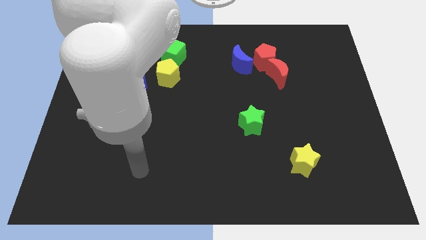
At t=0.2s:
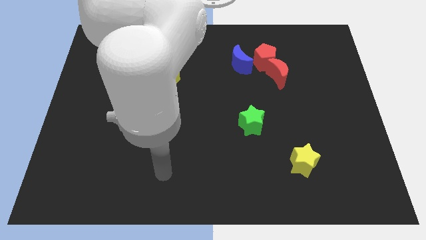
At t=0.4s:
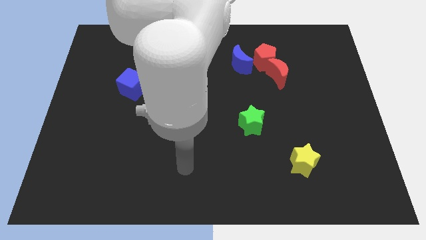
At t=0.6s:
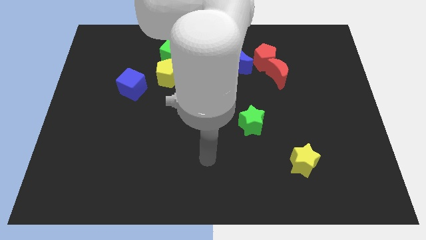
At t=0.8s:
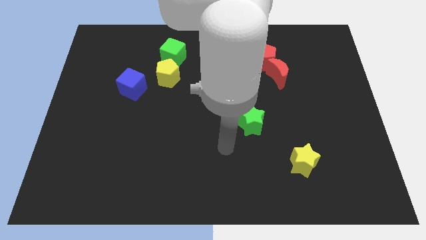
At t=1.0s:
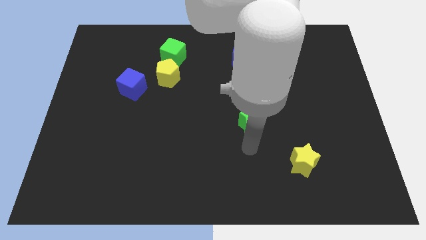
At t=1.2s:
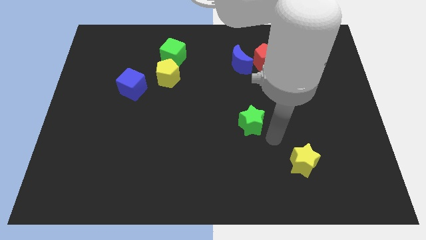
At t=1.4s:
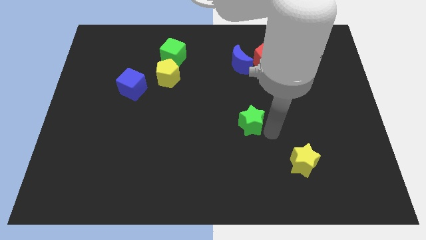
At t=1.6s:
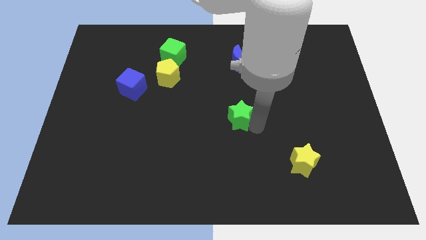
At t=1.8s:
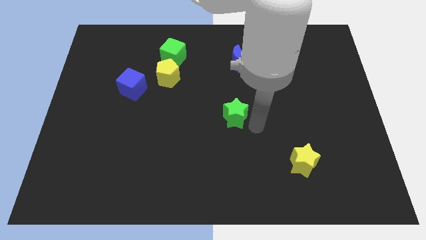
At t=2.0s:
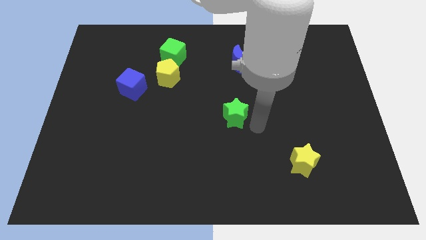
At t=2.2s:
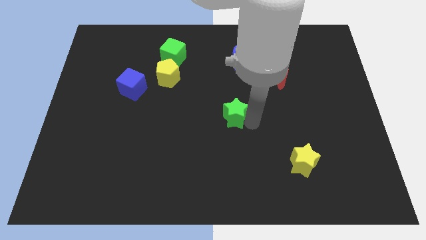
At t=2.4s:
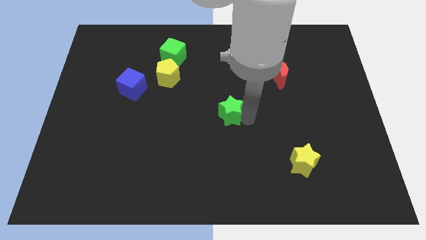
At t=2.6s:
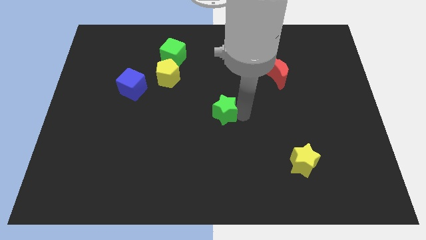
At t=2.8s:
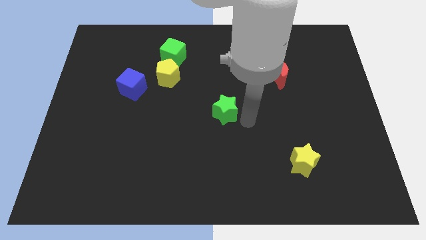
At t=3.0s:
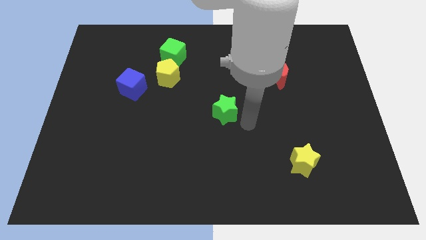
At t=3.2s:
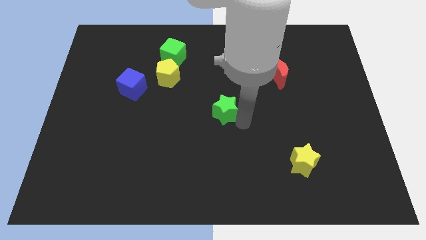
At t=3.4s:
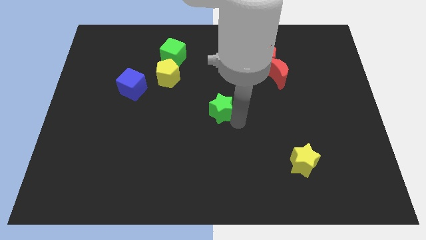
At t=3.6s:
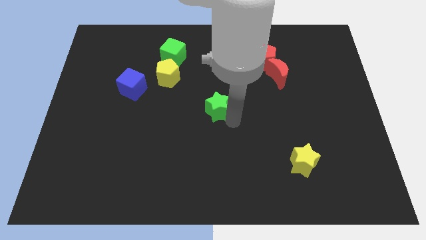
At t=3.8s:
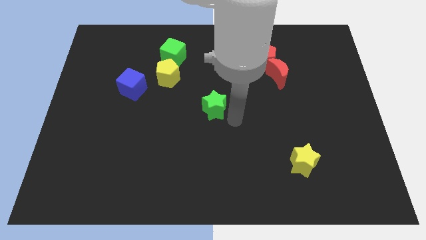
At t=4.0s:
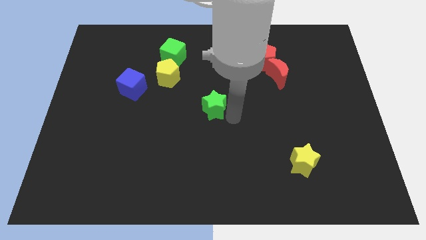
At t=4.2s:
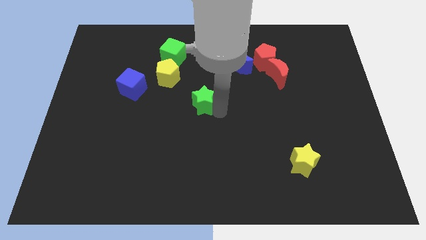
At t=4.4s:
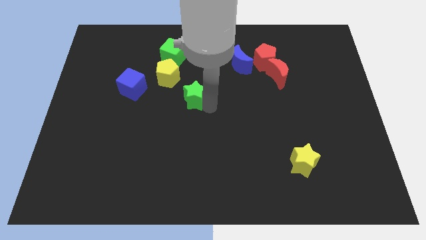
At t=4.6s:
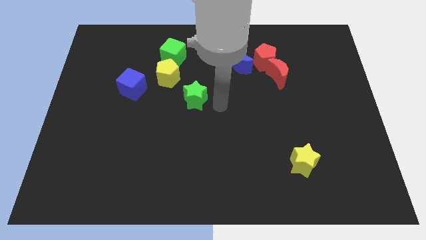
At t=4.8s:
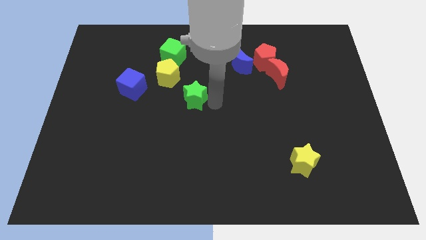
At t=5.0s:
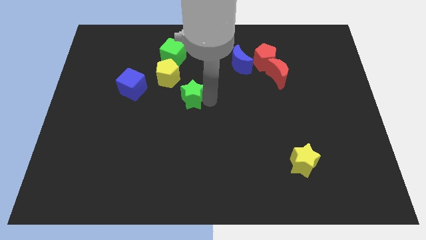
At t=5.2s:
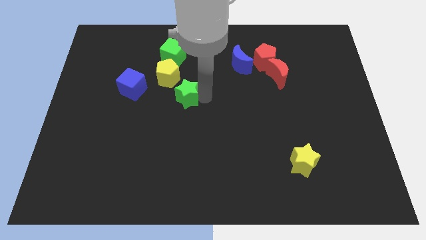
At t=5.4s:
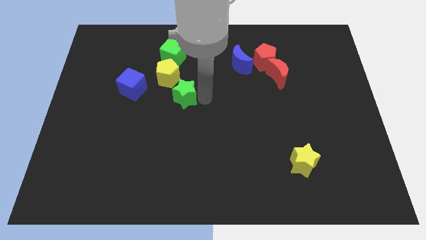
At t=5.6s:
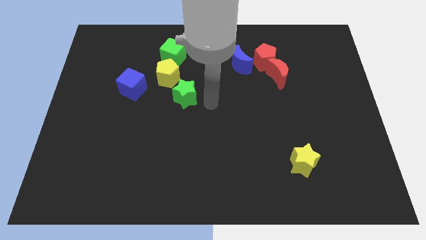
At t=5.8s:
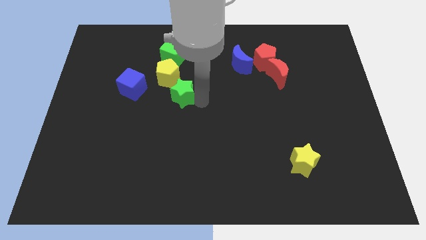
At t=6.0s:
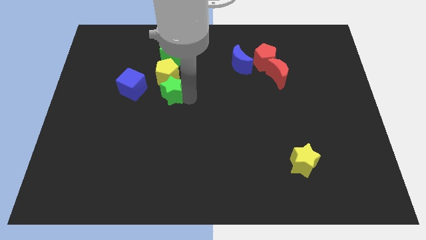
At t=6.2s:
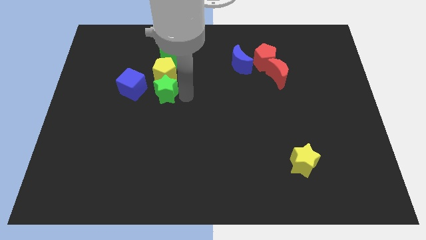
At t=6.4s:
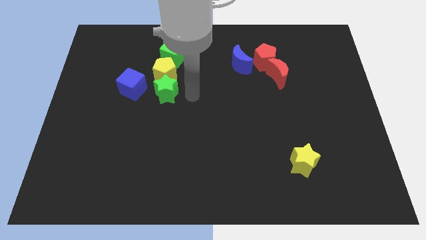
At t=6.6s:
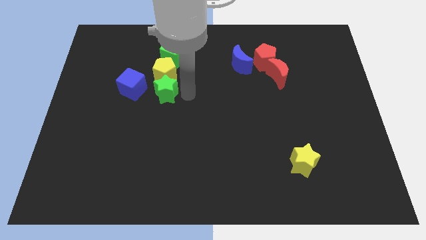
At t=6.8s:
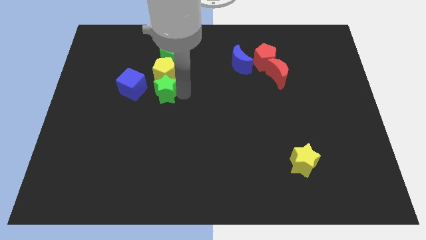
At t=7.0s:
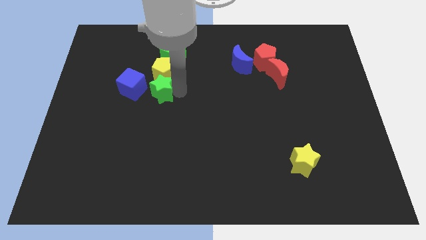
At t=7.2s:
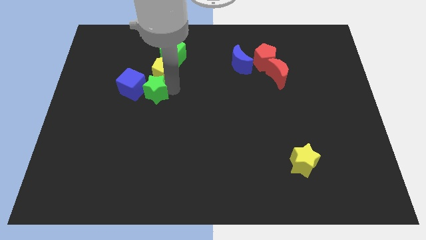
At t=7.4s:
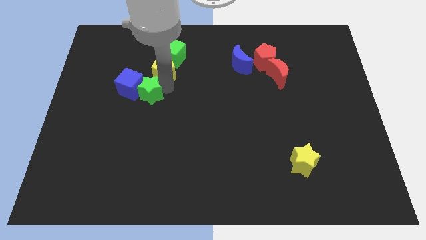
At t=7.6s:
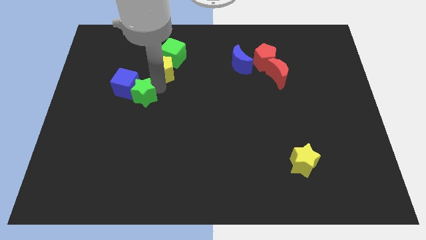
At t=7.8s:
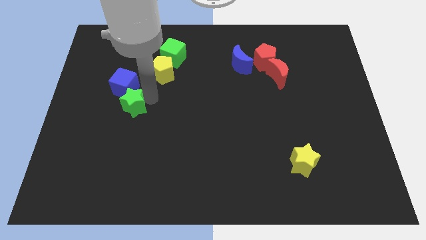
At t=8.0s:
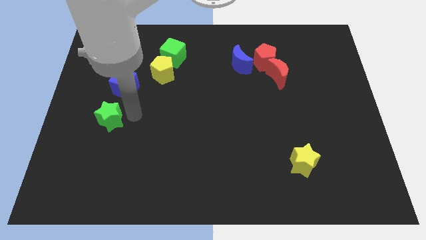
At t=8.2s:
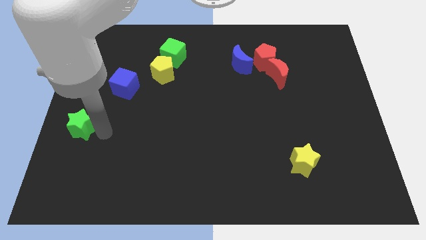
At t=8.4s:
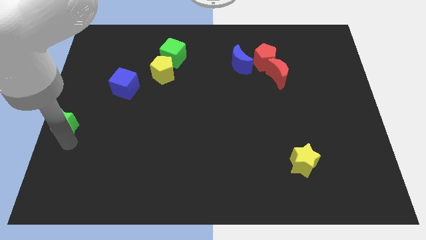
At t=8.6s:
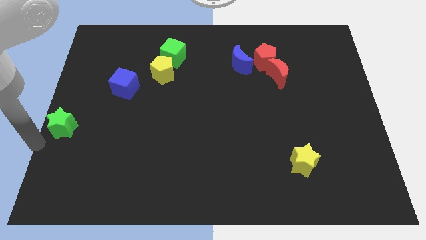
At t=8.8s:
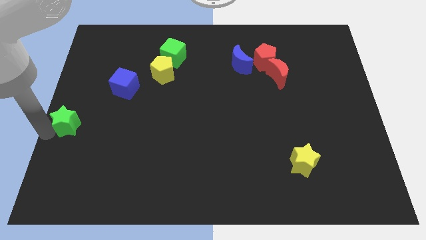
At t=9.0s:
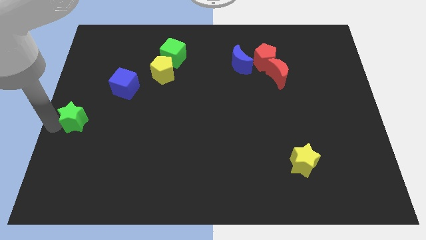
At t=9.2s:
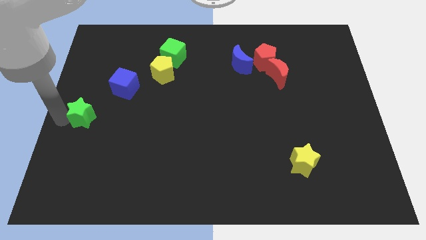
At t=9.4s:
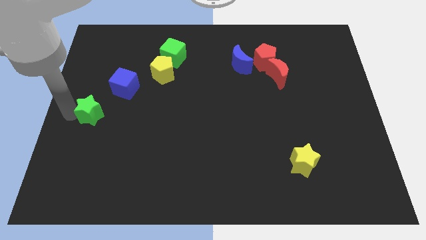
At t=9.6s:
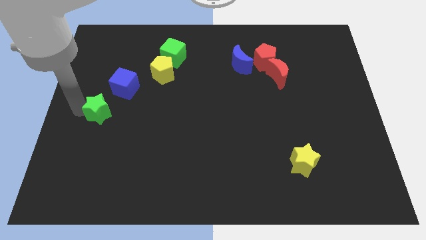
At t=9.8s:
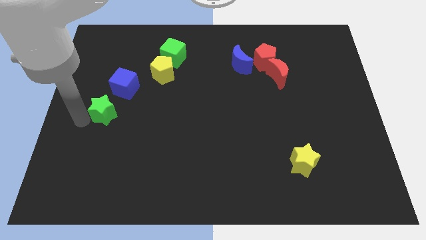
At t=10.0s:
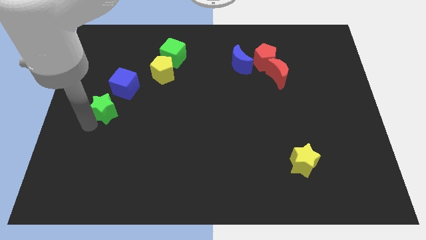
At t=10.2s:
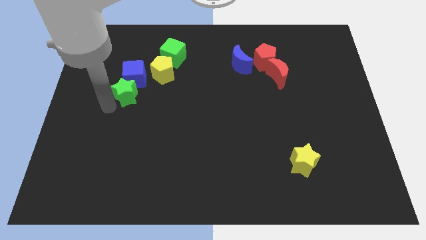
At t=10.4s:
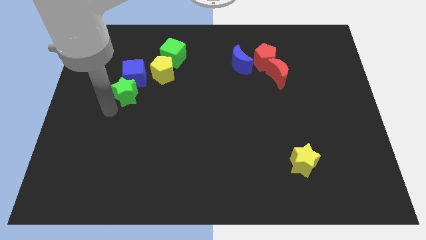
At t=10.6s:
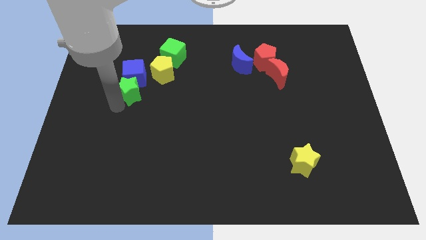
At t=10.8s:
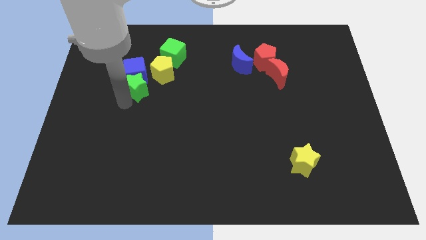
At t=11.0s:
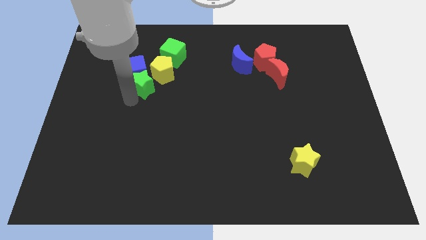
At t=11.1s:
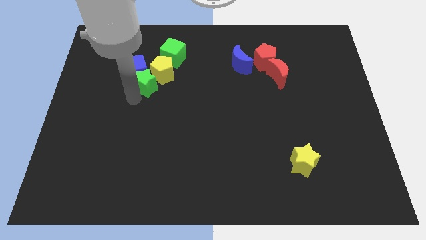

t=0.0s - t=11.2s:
slide the green star to the bottom left of the green cube

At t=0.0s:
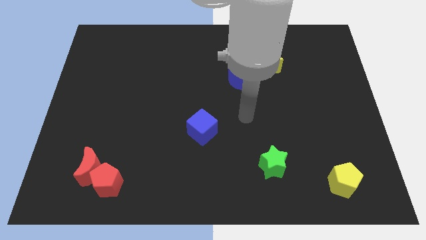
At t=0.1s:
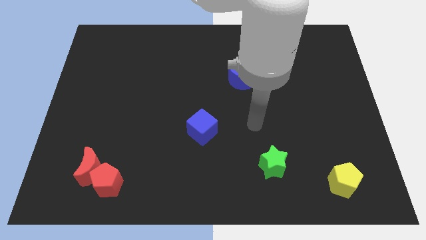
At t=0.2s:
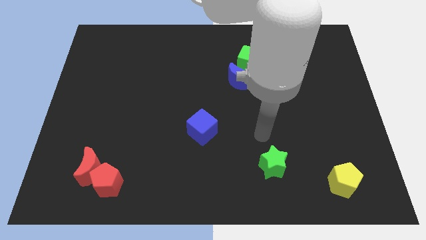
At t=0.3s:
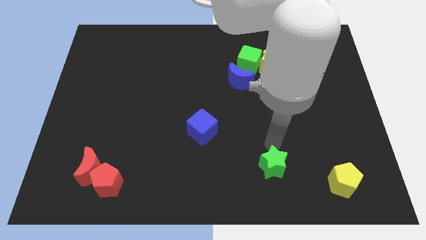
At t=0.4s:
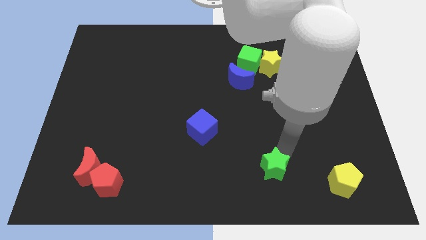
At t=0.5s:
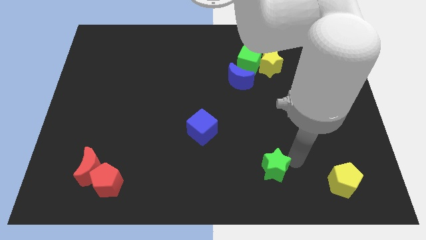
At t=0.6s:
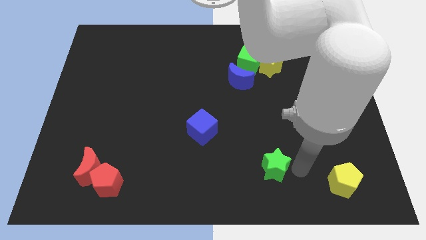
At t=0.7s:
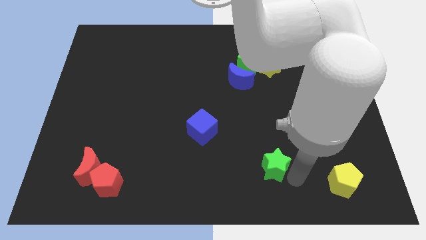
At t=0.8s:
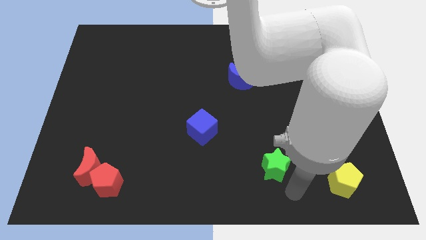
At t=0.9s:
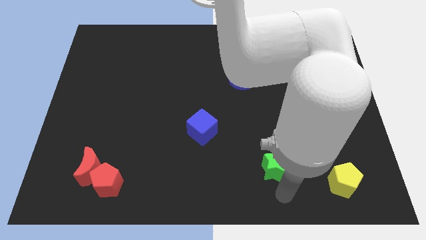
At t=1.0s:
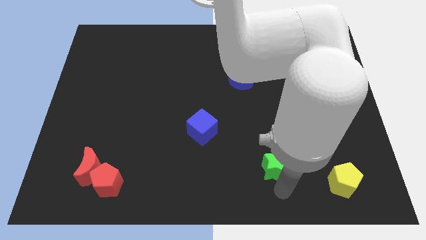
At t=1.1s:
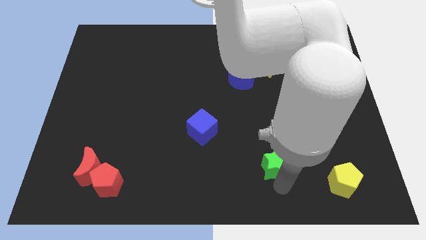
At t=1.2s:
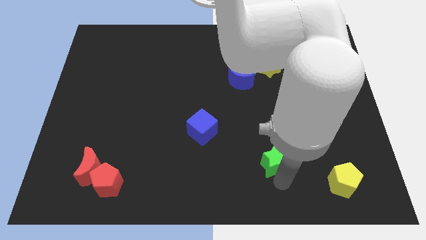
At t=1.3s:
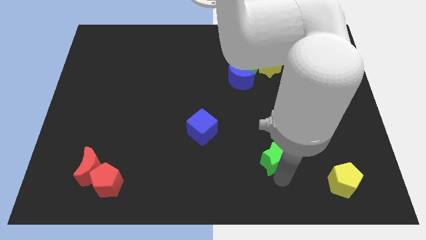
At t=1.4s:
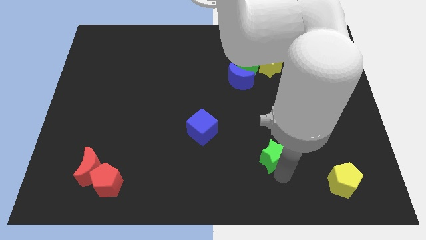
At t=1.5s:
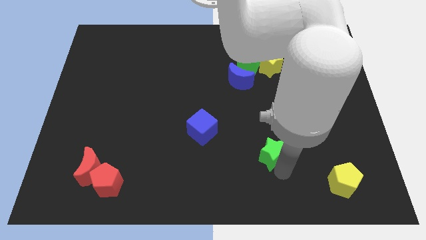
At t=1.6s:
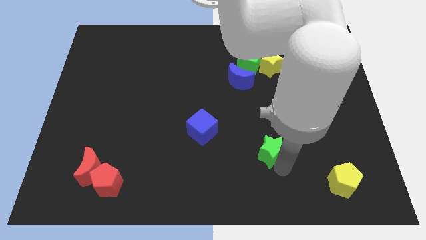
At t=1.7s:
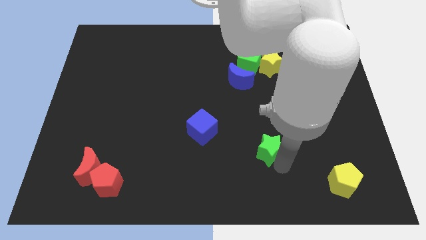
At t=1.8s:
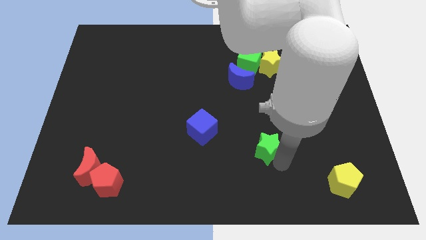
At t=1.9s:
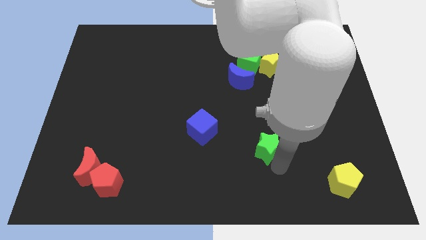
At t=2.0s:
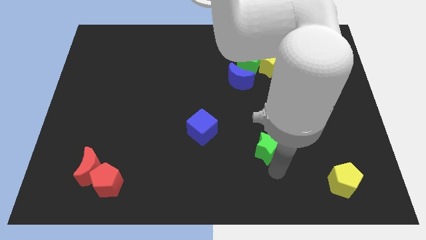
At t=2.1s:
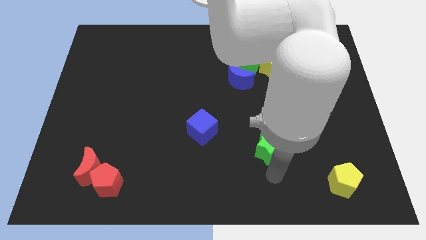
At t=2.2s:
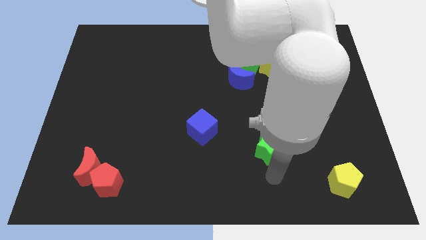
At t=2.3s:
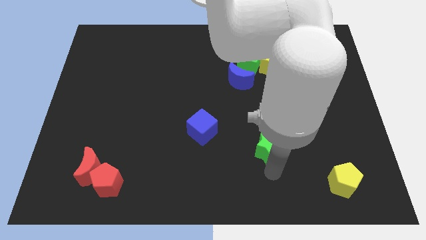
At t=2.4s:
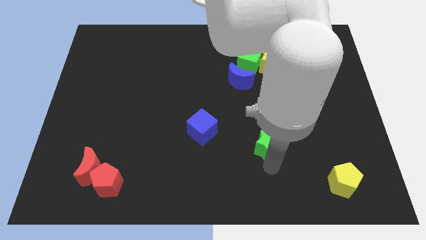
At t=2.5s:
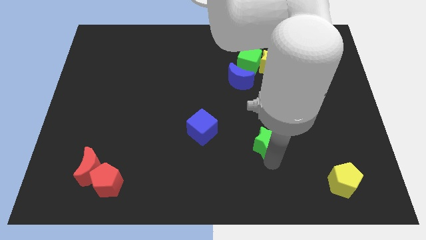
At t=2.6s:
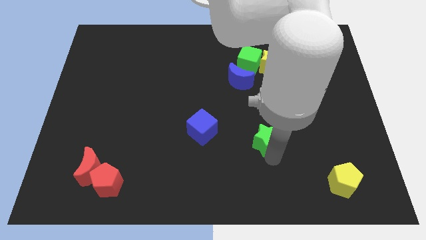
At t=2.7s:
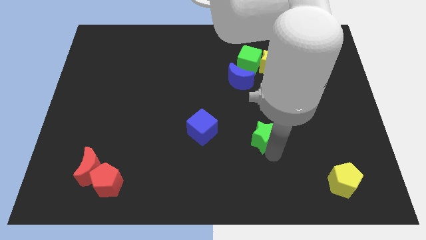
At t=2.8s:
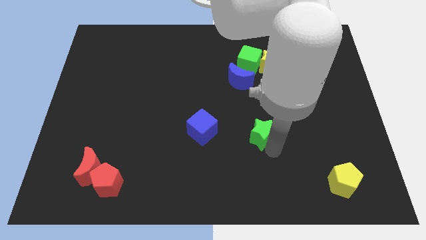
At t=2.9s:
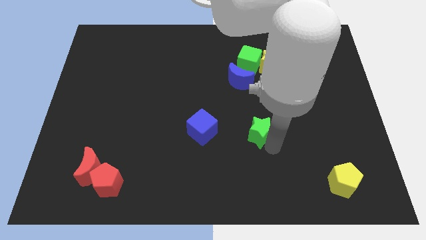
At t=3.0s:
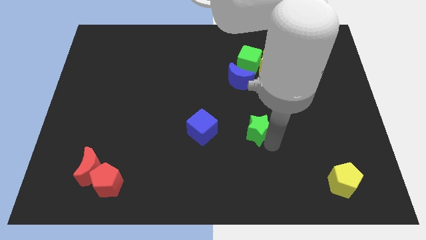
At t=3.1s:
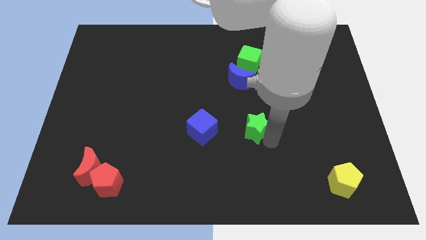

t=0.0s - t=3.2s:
push the green star below the blue moon
